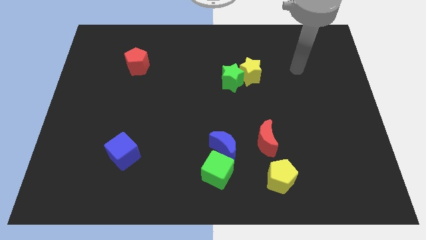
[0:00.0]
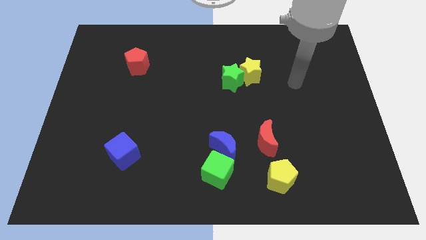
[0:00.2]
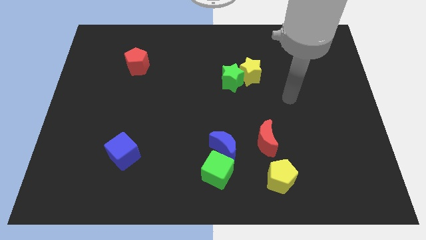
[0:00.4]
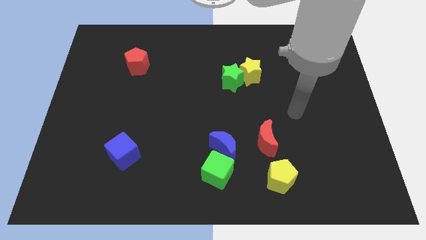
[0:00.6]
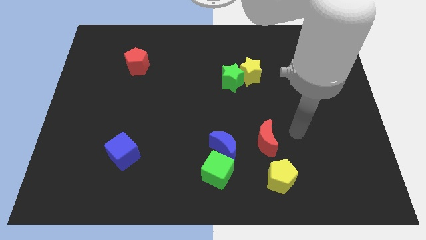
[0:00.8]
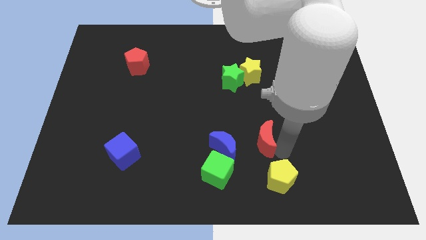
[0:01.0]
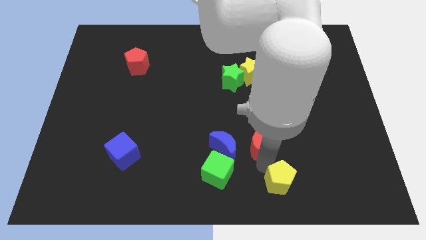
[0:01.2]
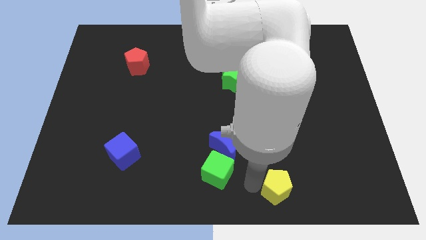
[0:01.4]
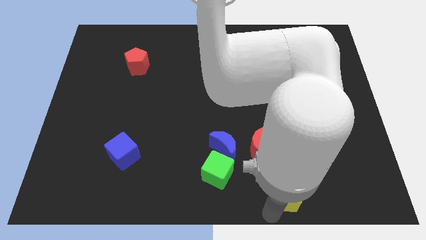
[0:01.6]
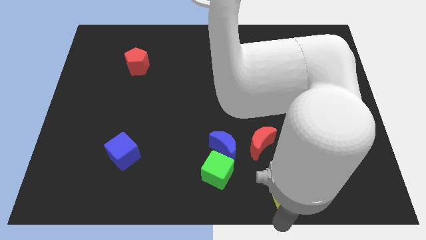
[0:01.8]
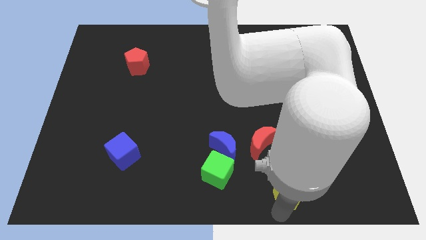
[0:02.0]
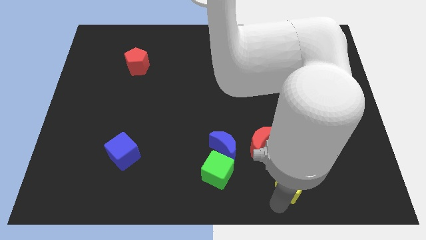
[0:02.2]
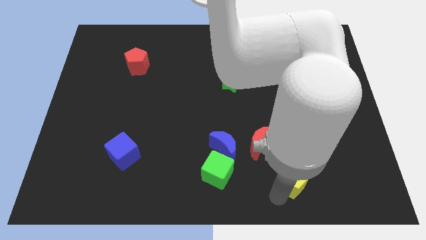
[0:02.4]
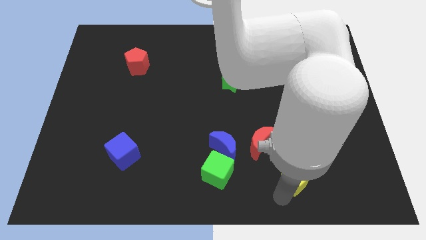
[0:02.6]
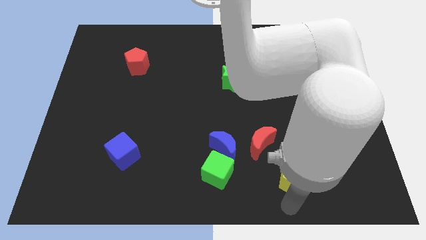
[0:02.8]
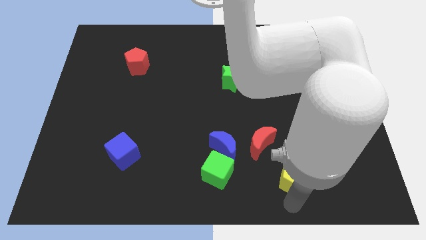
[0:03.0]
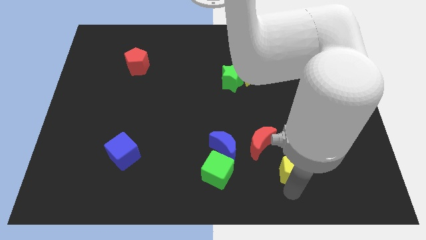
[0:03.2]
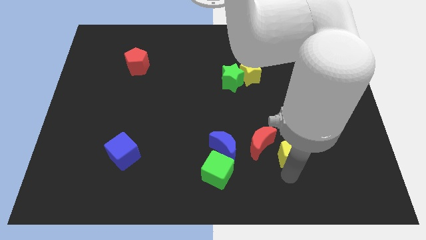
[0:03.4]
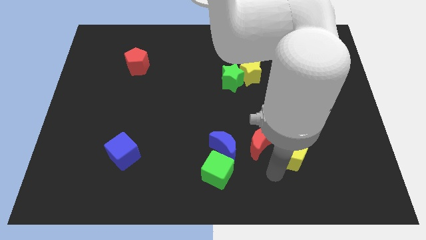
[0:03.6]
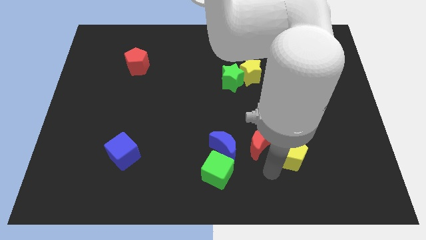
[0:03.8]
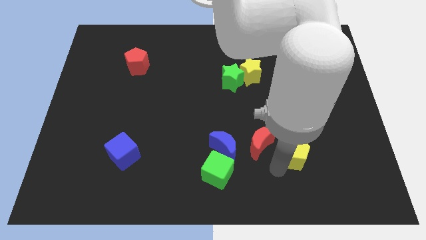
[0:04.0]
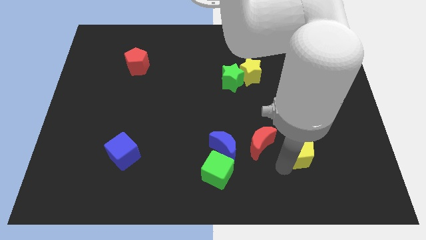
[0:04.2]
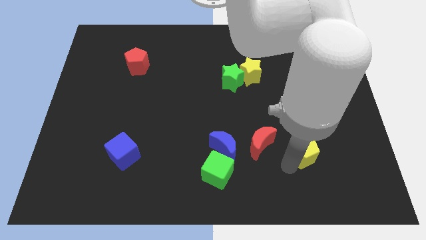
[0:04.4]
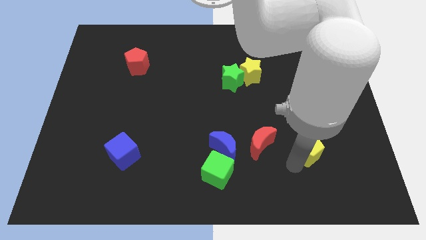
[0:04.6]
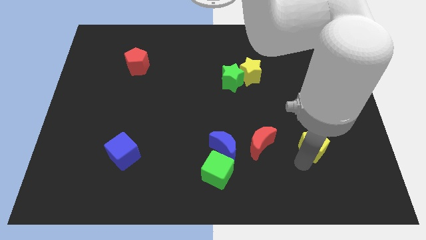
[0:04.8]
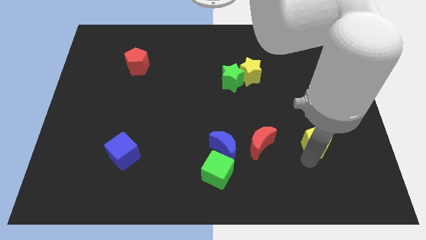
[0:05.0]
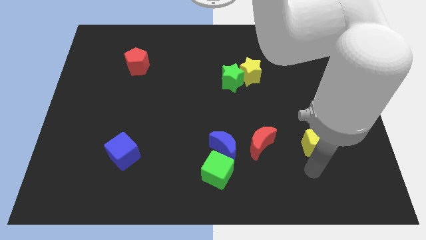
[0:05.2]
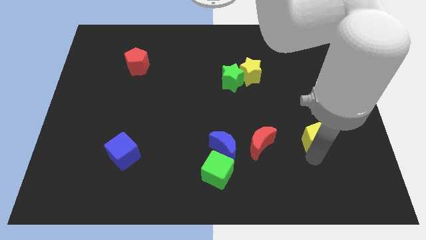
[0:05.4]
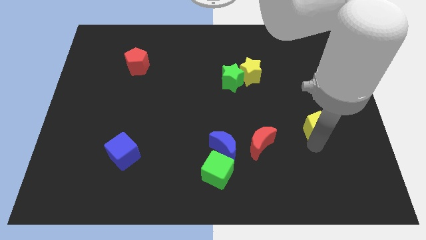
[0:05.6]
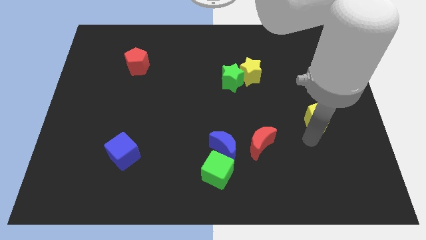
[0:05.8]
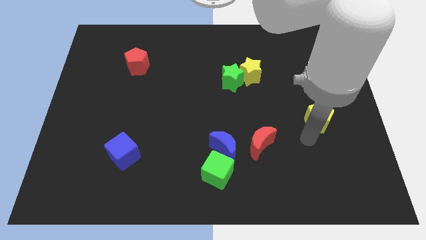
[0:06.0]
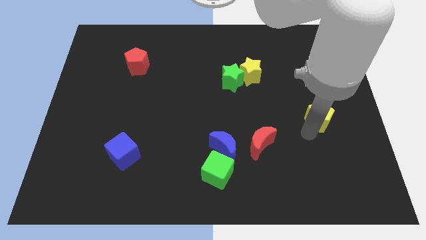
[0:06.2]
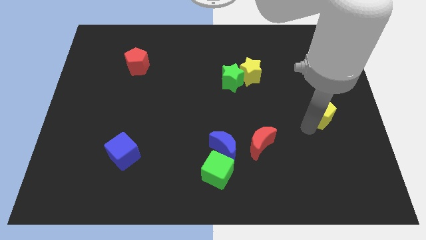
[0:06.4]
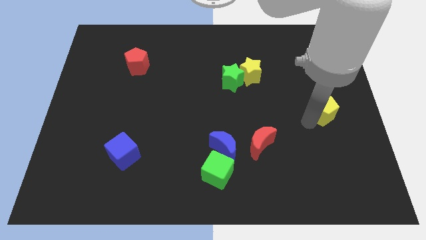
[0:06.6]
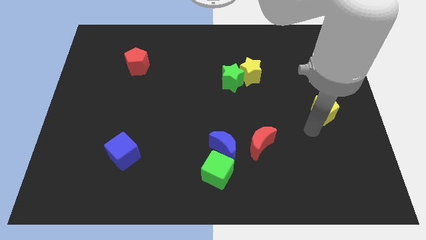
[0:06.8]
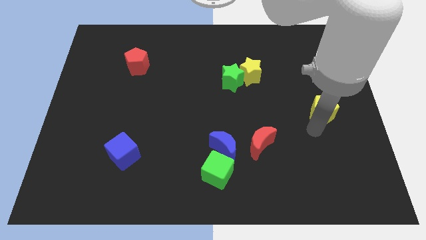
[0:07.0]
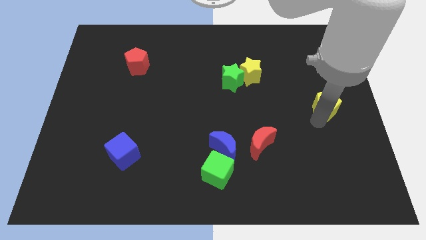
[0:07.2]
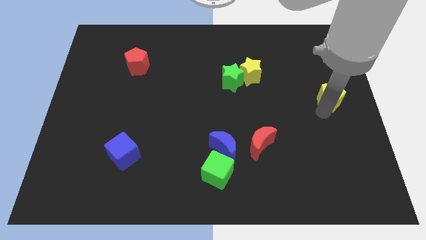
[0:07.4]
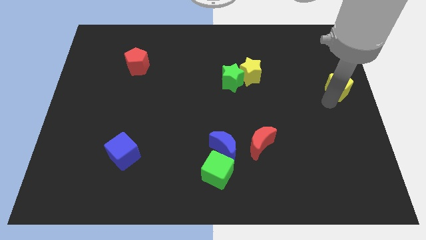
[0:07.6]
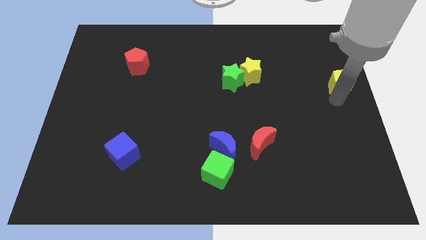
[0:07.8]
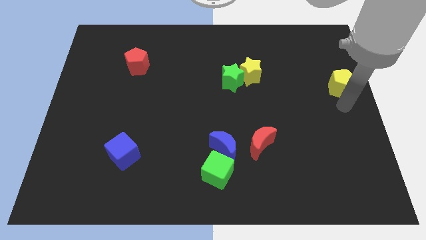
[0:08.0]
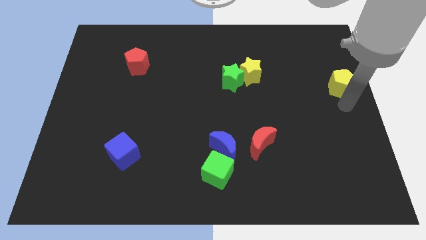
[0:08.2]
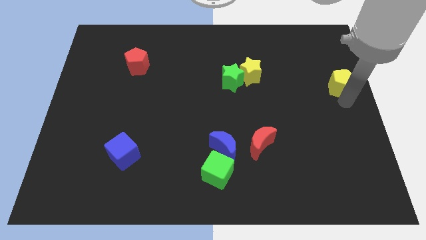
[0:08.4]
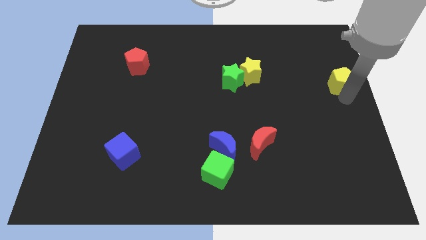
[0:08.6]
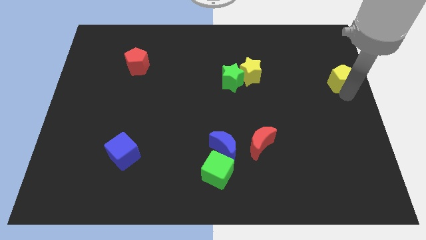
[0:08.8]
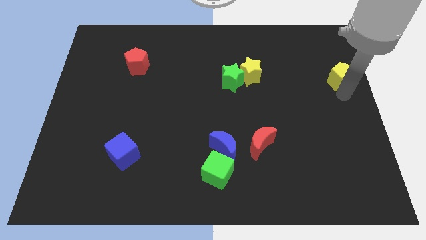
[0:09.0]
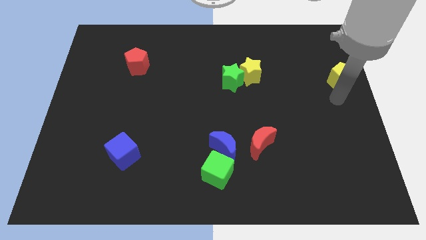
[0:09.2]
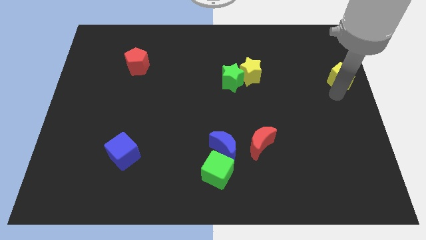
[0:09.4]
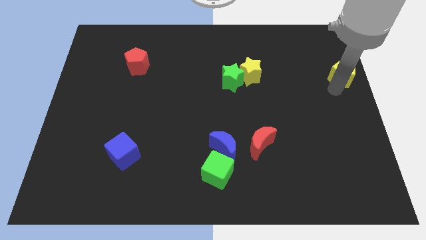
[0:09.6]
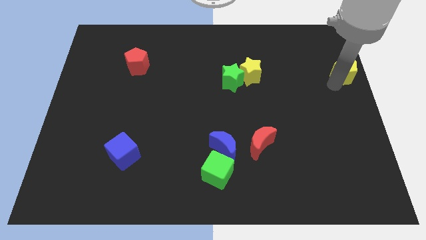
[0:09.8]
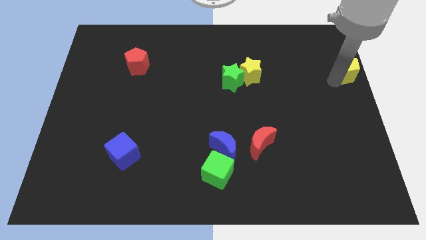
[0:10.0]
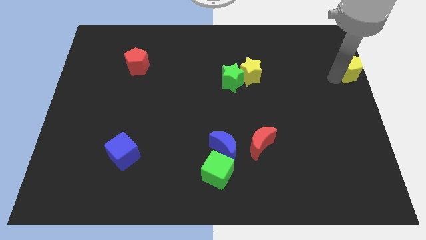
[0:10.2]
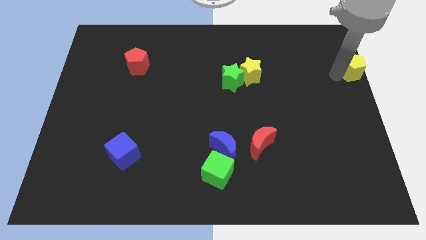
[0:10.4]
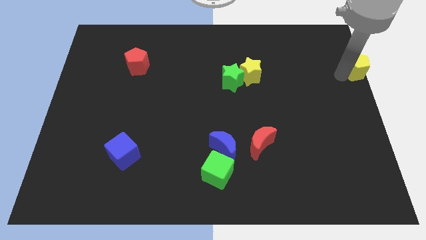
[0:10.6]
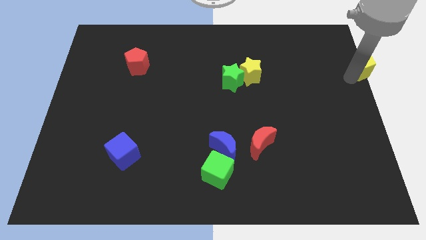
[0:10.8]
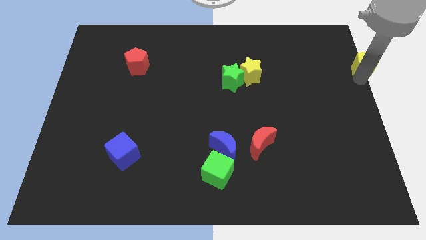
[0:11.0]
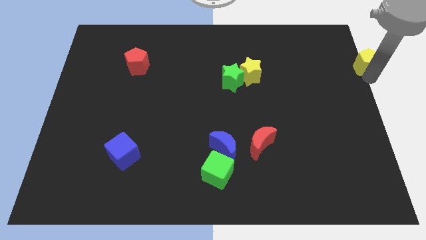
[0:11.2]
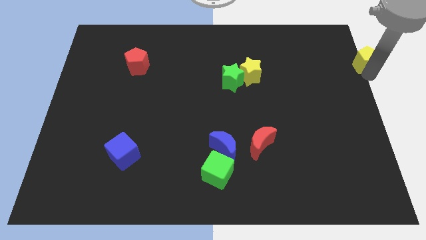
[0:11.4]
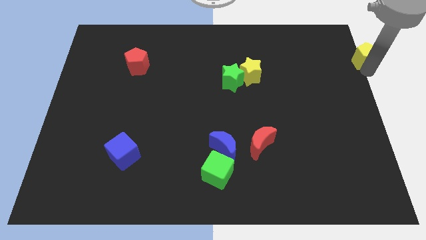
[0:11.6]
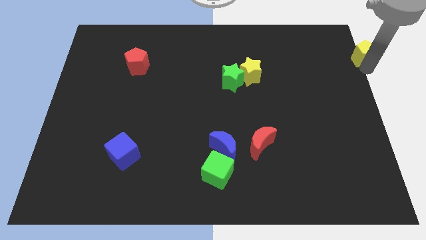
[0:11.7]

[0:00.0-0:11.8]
push the yellow pentagon to the upper right corner
